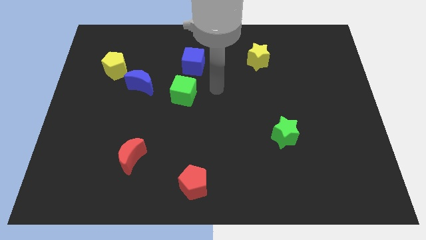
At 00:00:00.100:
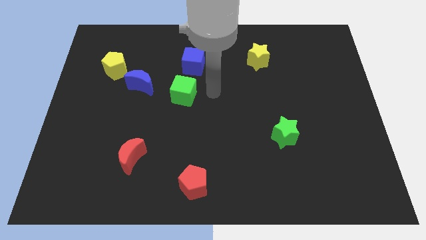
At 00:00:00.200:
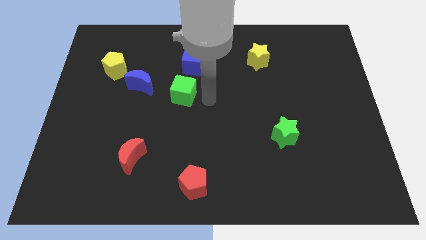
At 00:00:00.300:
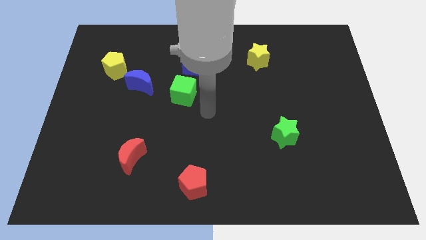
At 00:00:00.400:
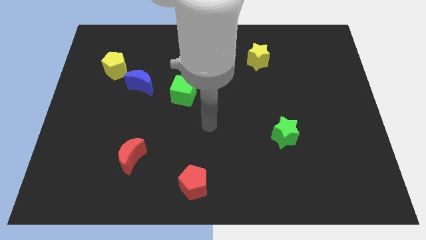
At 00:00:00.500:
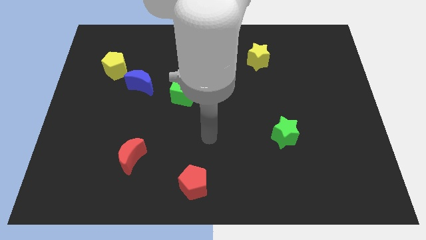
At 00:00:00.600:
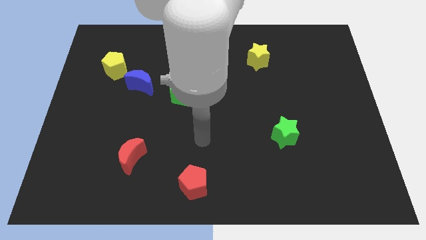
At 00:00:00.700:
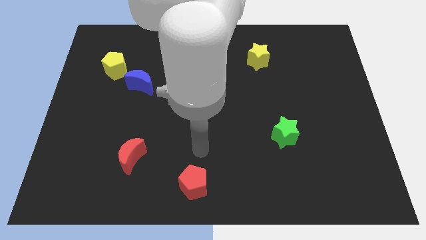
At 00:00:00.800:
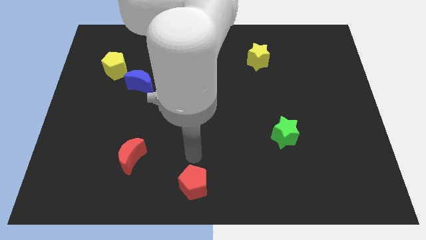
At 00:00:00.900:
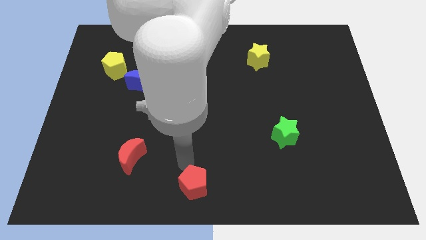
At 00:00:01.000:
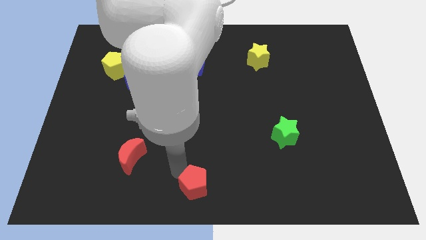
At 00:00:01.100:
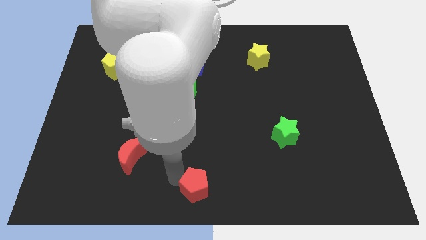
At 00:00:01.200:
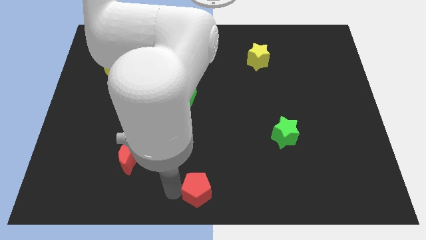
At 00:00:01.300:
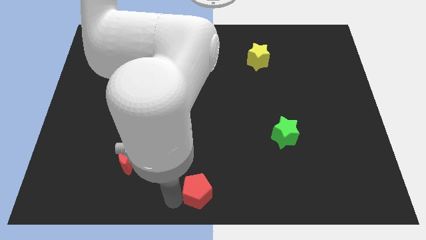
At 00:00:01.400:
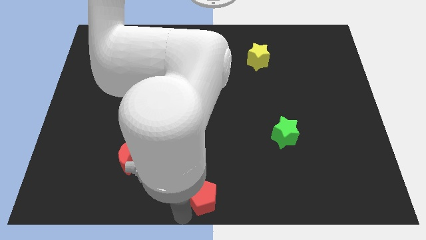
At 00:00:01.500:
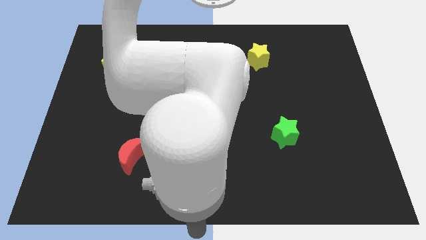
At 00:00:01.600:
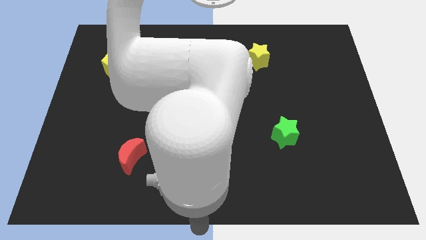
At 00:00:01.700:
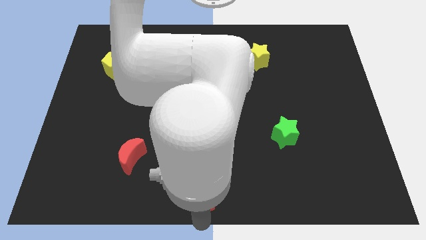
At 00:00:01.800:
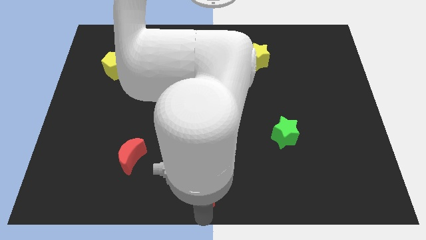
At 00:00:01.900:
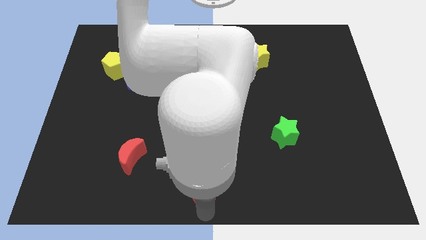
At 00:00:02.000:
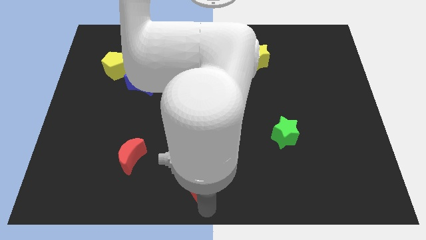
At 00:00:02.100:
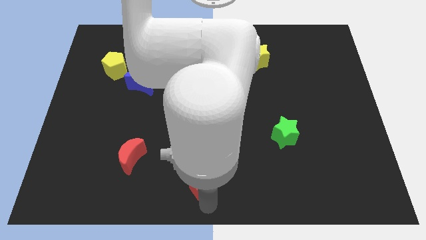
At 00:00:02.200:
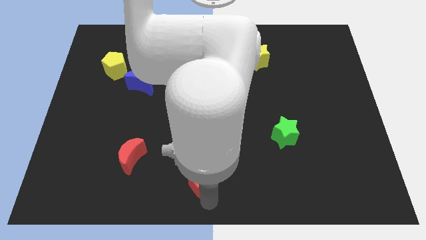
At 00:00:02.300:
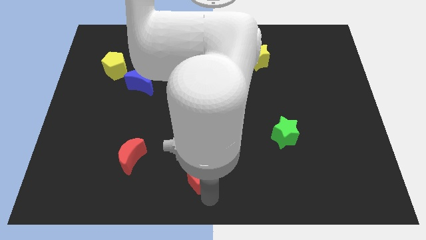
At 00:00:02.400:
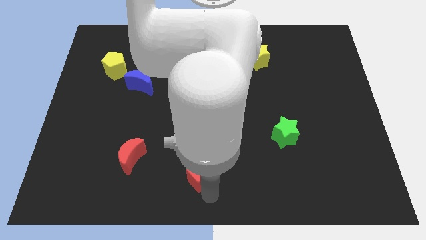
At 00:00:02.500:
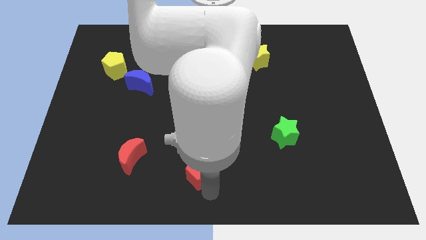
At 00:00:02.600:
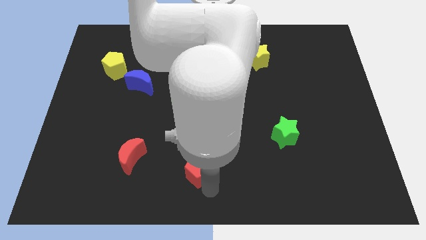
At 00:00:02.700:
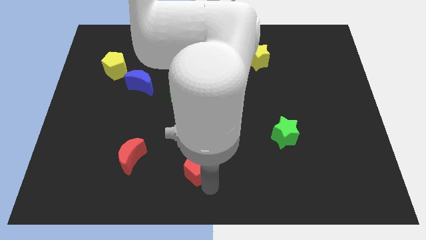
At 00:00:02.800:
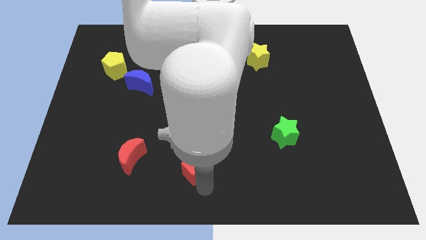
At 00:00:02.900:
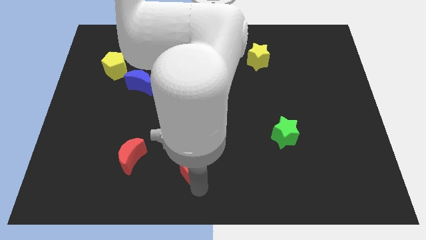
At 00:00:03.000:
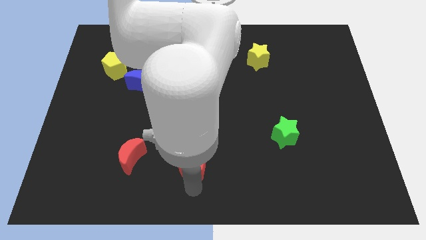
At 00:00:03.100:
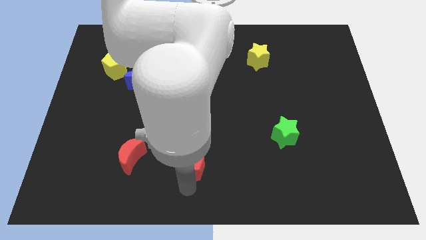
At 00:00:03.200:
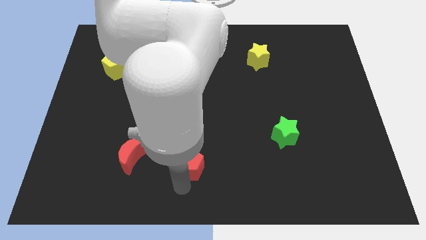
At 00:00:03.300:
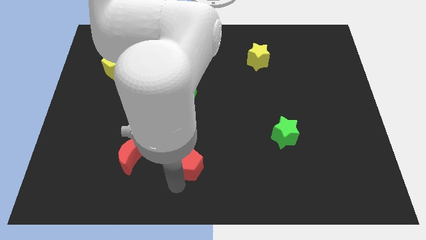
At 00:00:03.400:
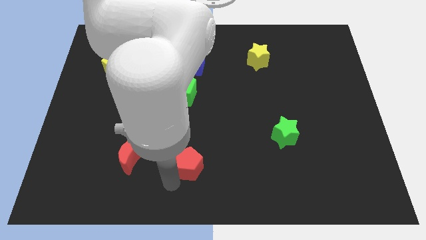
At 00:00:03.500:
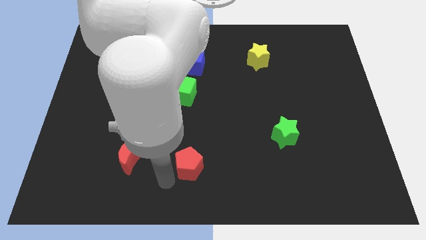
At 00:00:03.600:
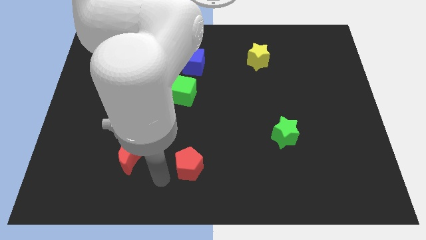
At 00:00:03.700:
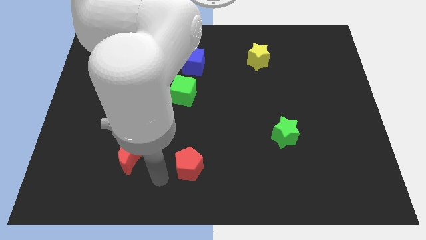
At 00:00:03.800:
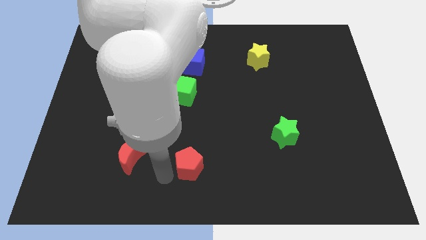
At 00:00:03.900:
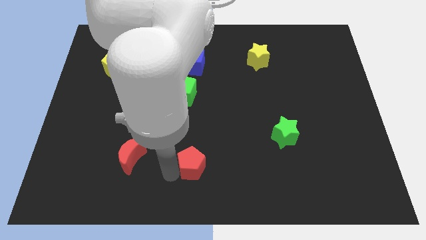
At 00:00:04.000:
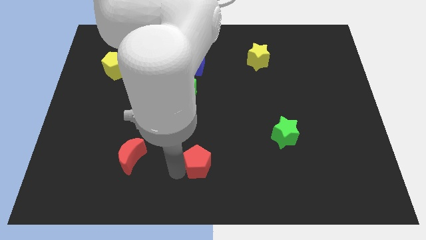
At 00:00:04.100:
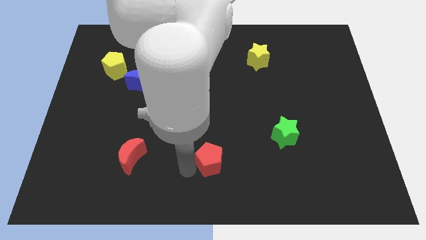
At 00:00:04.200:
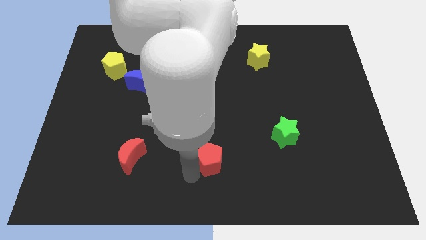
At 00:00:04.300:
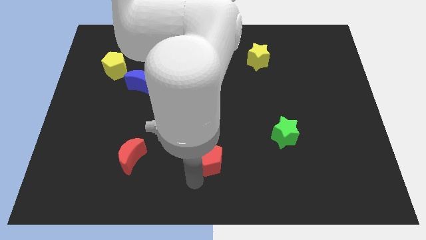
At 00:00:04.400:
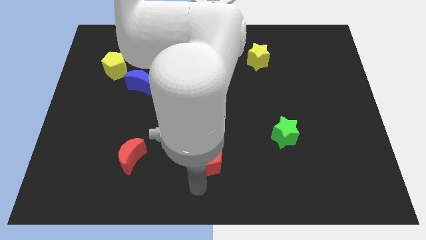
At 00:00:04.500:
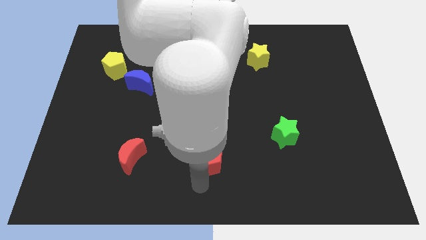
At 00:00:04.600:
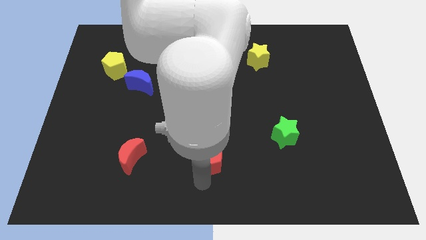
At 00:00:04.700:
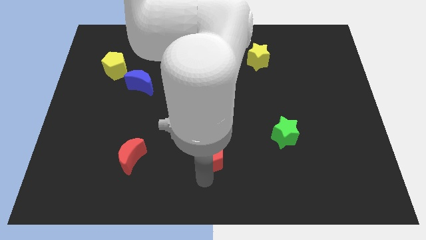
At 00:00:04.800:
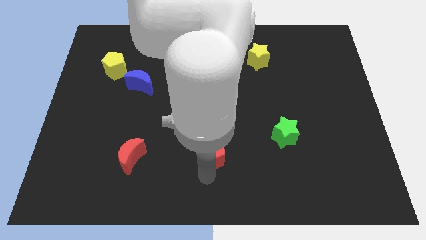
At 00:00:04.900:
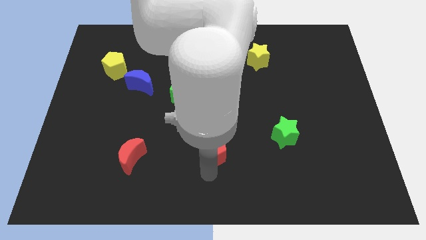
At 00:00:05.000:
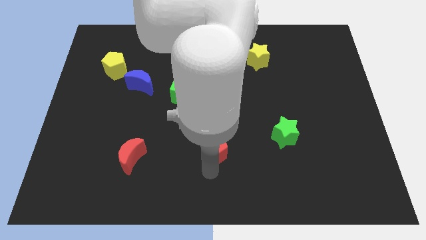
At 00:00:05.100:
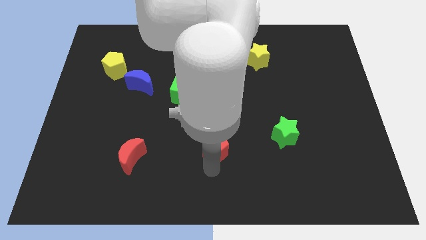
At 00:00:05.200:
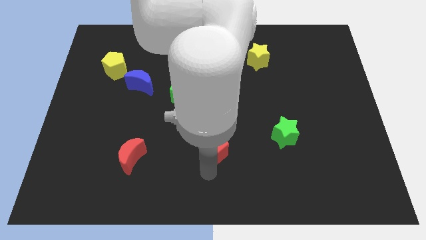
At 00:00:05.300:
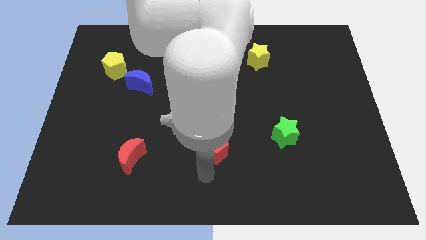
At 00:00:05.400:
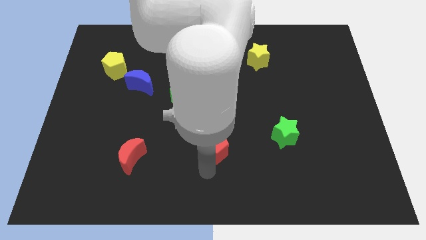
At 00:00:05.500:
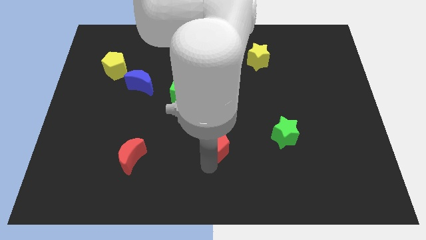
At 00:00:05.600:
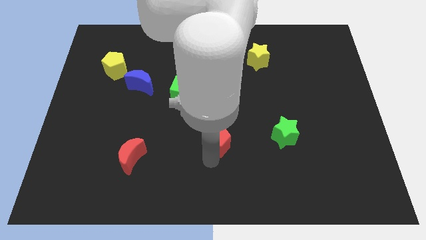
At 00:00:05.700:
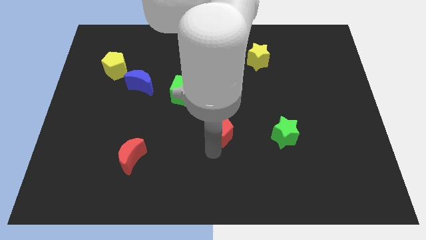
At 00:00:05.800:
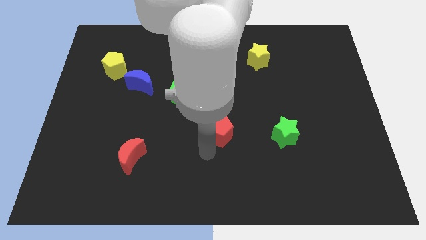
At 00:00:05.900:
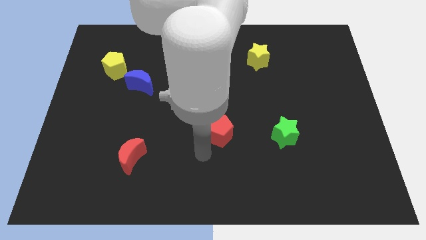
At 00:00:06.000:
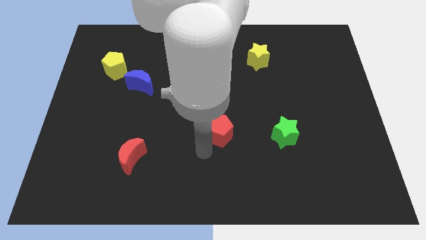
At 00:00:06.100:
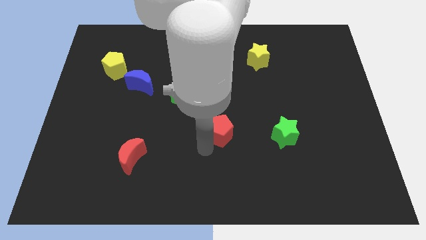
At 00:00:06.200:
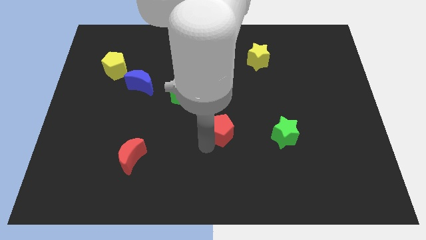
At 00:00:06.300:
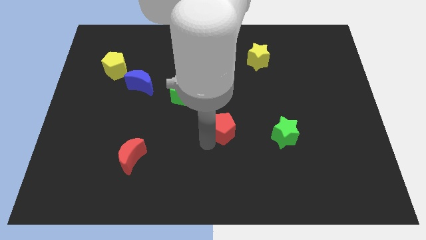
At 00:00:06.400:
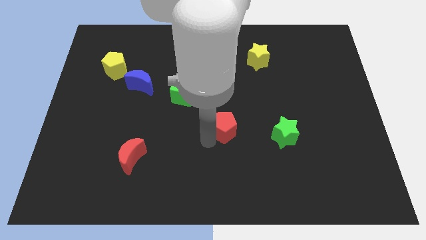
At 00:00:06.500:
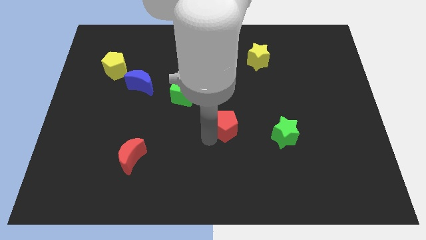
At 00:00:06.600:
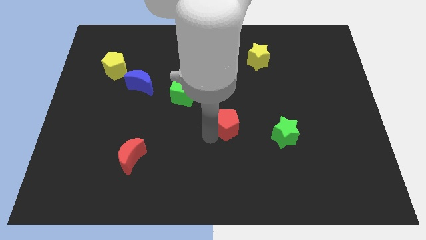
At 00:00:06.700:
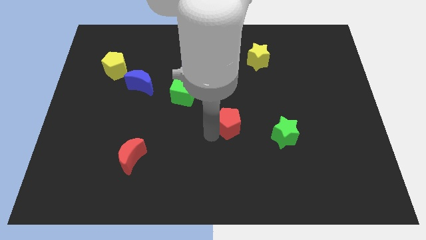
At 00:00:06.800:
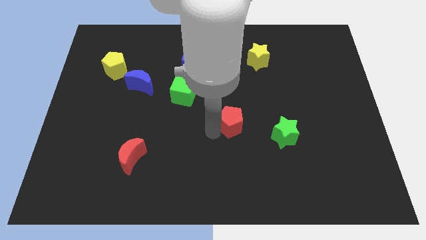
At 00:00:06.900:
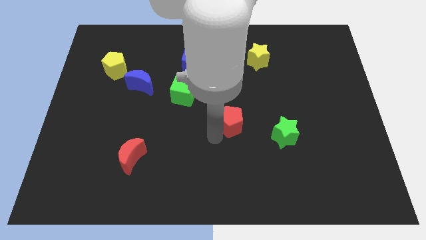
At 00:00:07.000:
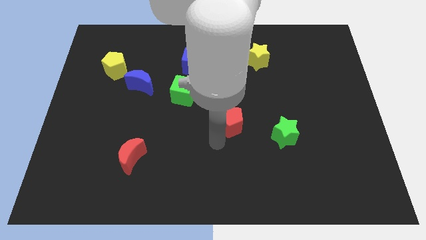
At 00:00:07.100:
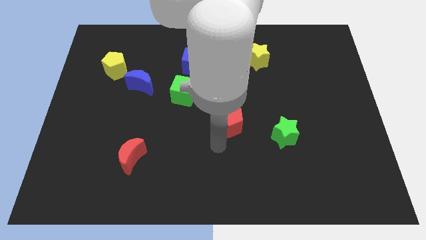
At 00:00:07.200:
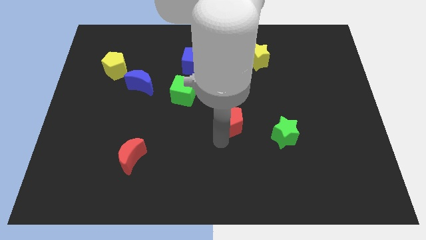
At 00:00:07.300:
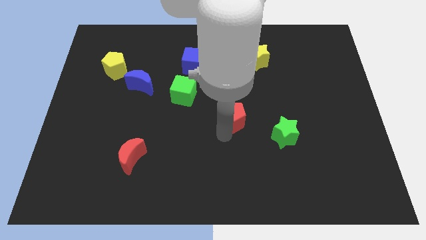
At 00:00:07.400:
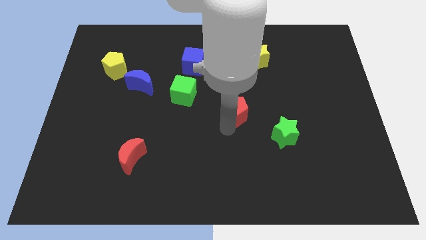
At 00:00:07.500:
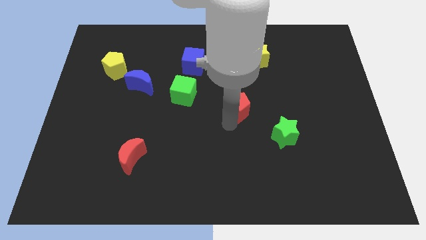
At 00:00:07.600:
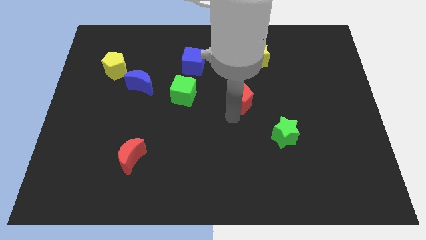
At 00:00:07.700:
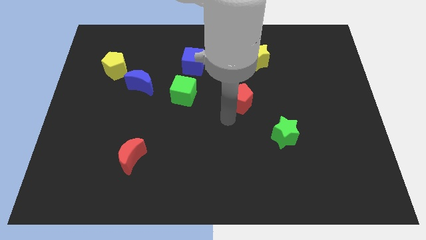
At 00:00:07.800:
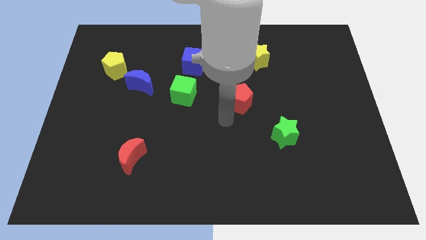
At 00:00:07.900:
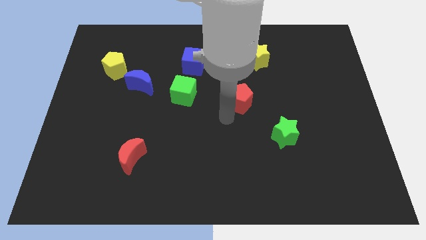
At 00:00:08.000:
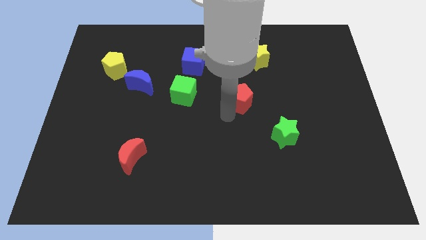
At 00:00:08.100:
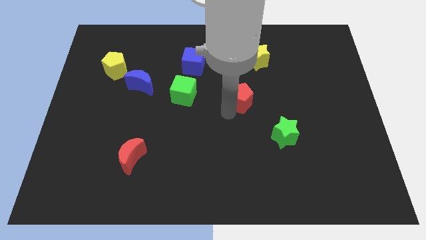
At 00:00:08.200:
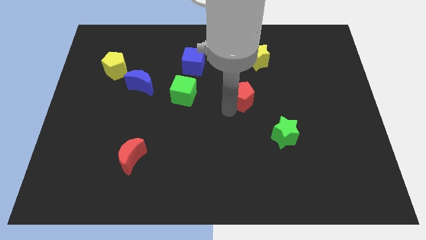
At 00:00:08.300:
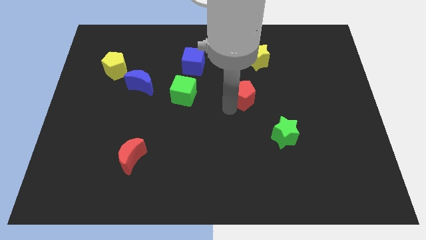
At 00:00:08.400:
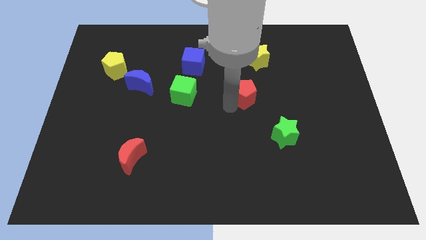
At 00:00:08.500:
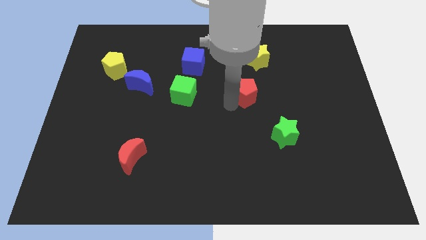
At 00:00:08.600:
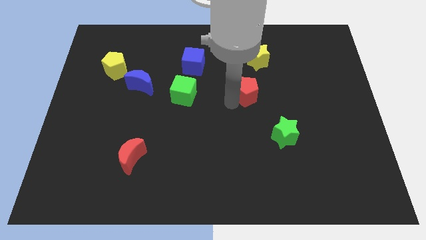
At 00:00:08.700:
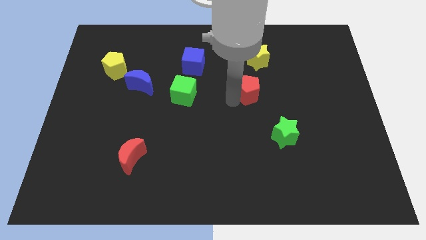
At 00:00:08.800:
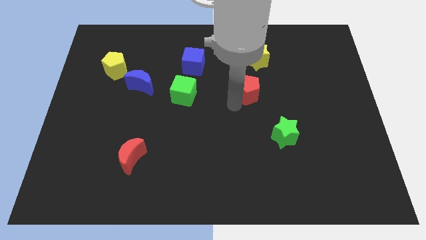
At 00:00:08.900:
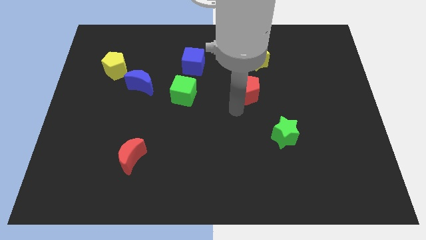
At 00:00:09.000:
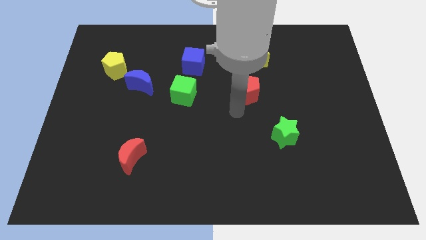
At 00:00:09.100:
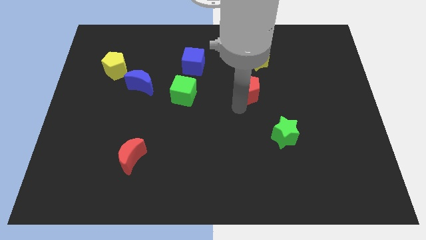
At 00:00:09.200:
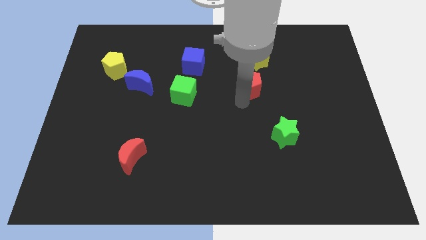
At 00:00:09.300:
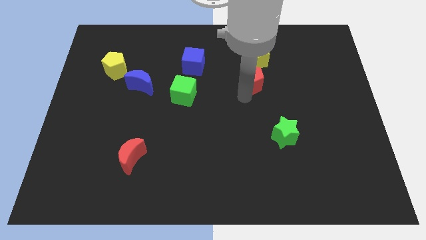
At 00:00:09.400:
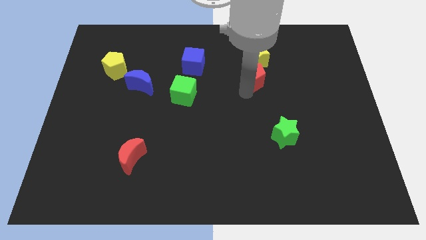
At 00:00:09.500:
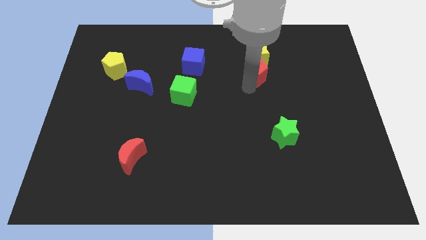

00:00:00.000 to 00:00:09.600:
push the red pentagon to the yellow star
